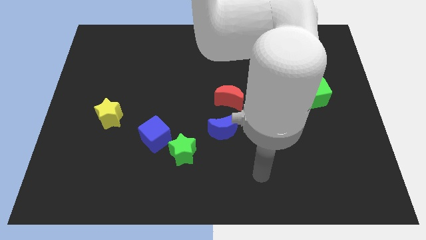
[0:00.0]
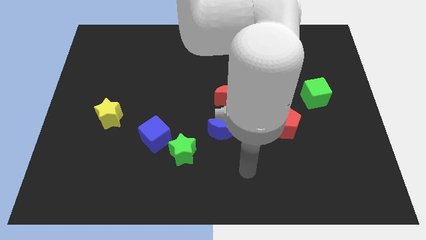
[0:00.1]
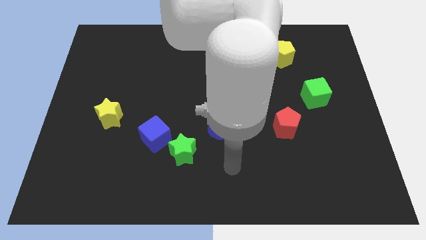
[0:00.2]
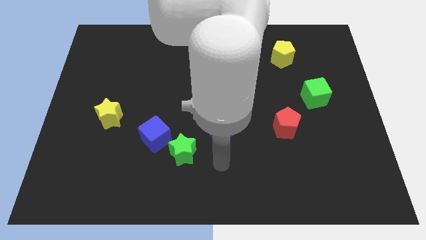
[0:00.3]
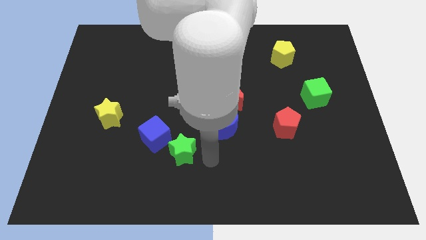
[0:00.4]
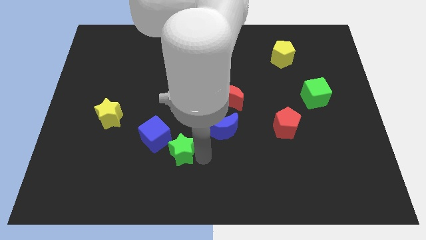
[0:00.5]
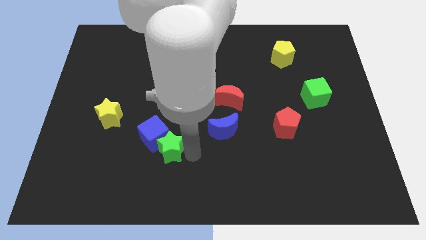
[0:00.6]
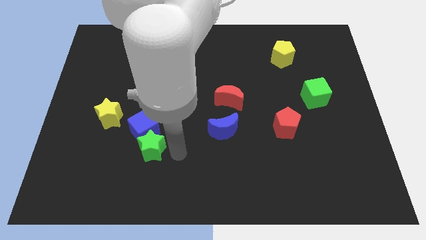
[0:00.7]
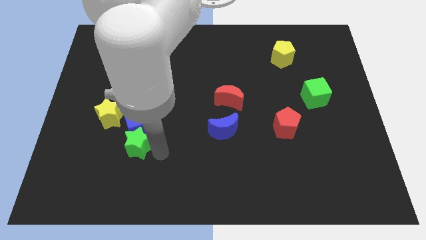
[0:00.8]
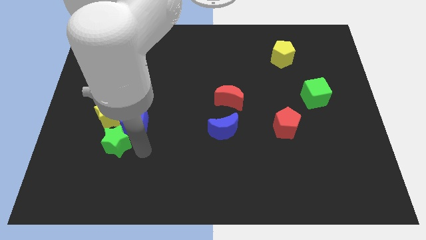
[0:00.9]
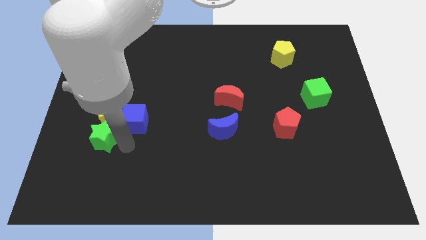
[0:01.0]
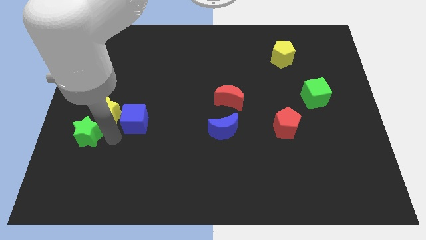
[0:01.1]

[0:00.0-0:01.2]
move the blue cube away from the green star

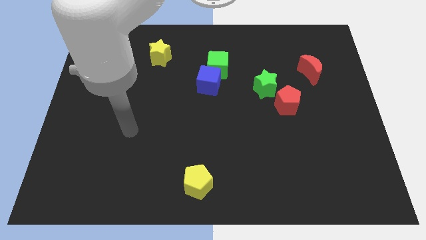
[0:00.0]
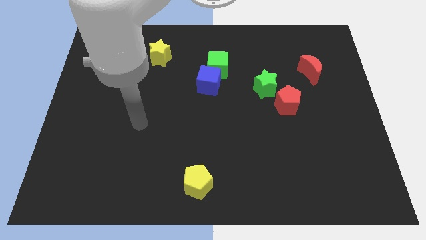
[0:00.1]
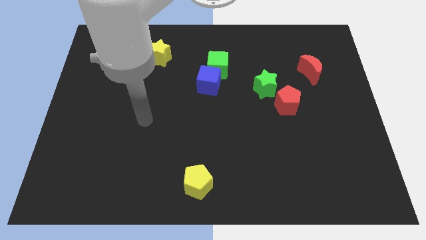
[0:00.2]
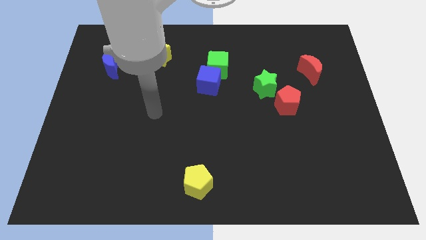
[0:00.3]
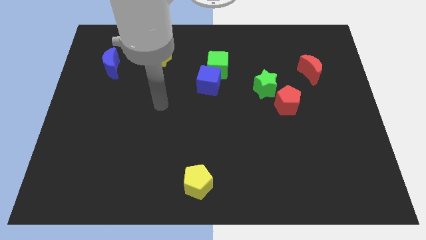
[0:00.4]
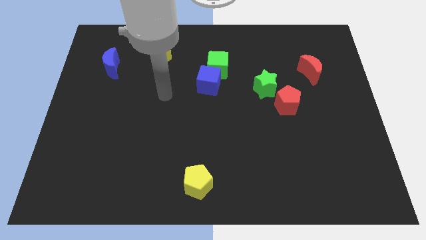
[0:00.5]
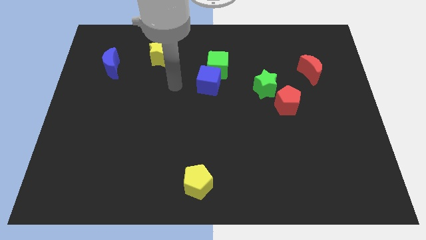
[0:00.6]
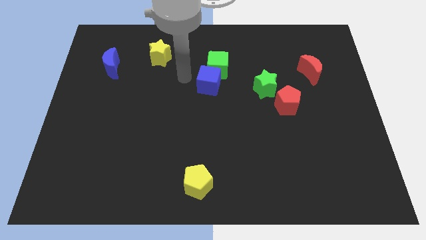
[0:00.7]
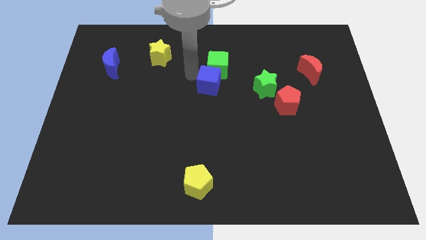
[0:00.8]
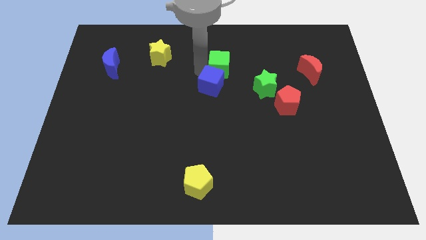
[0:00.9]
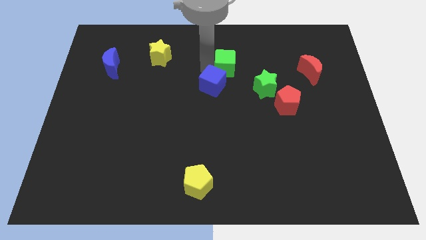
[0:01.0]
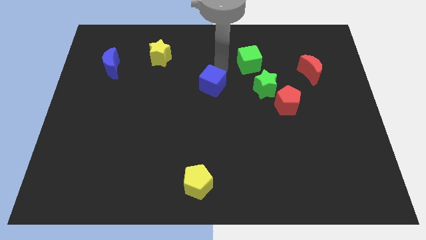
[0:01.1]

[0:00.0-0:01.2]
pull the blue cube apart from the green cube

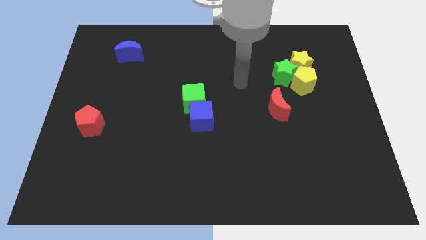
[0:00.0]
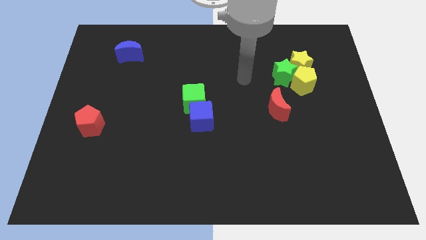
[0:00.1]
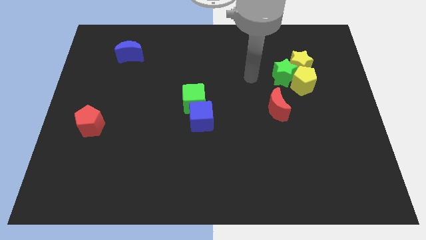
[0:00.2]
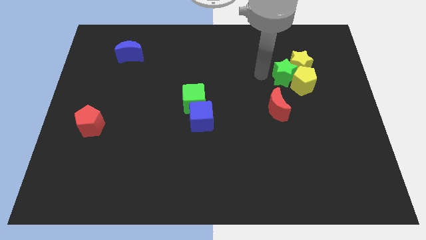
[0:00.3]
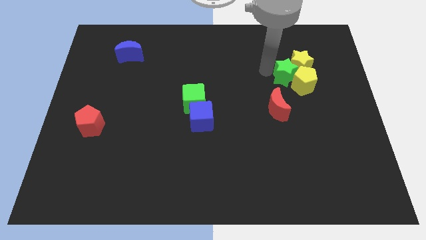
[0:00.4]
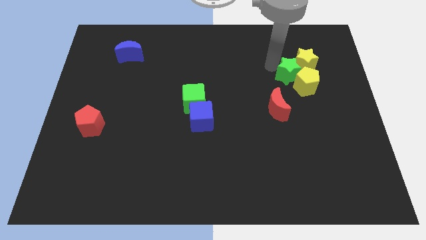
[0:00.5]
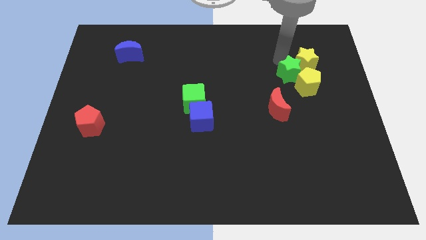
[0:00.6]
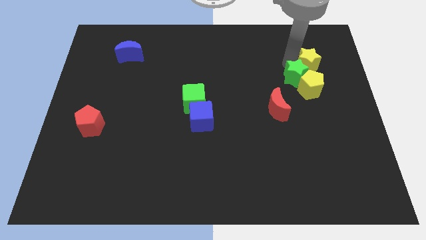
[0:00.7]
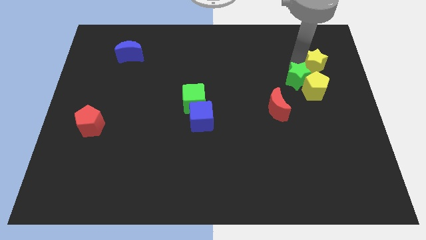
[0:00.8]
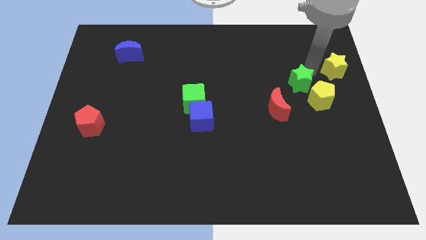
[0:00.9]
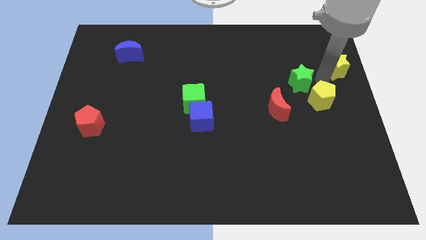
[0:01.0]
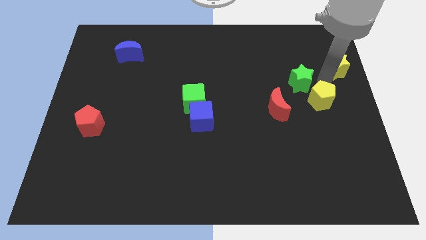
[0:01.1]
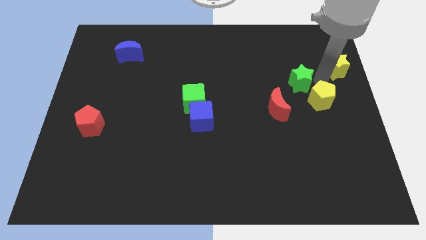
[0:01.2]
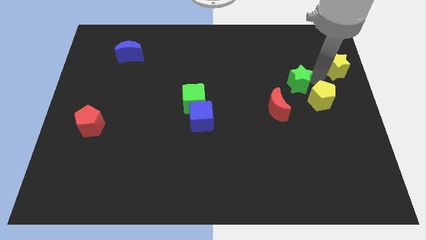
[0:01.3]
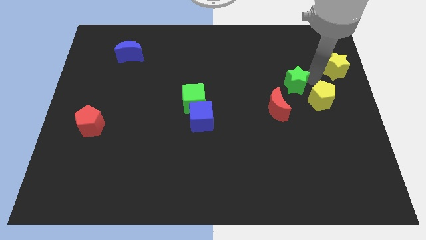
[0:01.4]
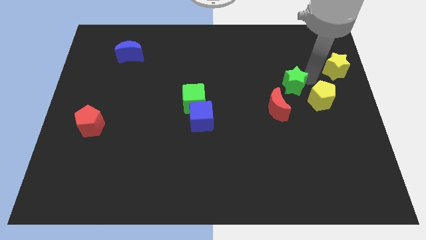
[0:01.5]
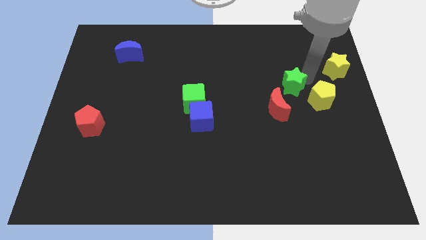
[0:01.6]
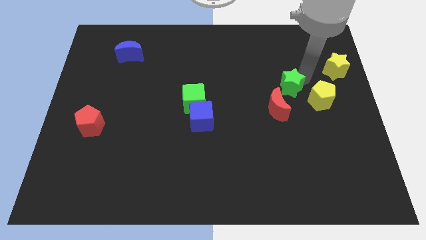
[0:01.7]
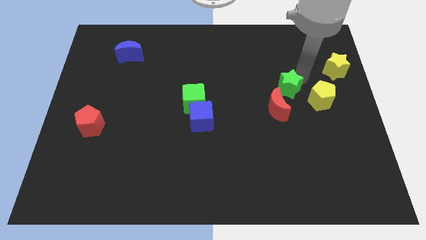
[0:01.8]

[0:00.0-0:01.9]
separate the green star from the yellow pentagon and yellow star

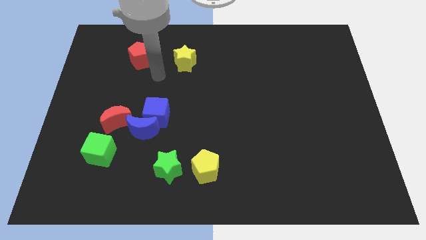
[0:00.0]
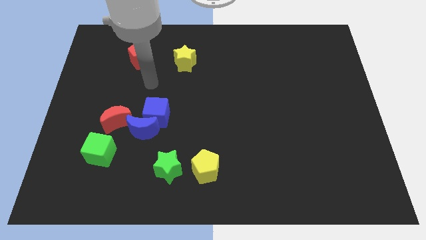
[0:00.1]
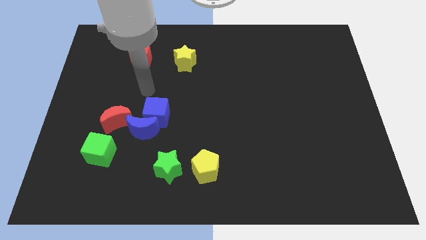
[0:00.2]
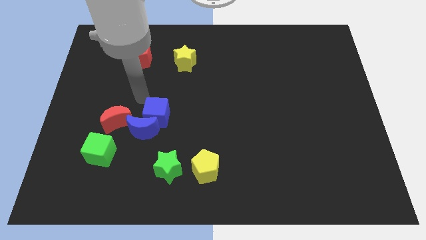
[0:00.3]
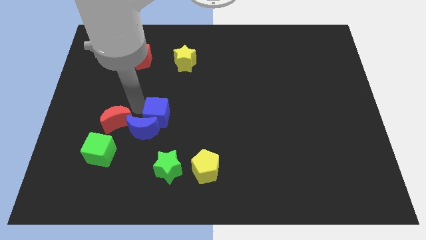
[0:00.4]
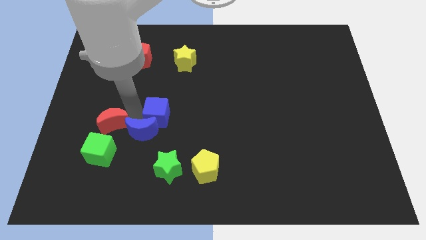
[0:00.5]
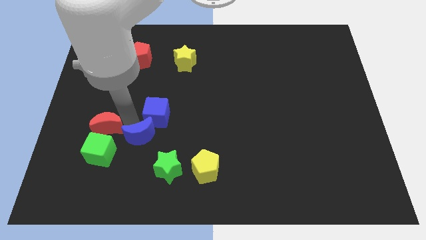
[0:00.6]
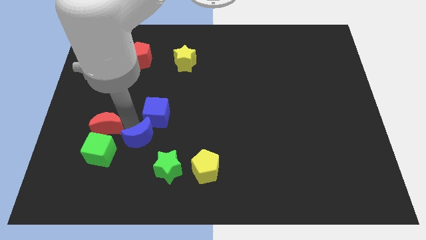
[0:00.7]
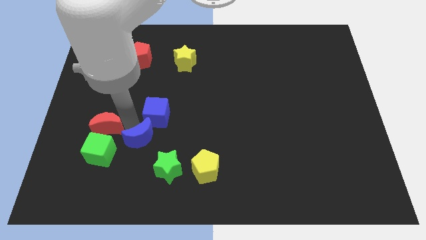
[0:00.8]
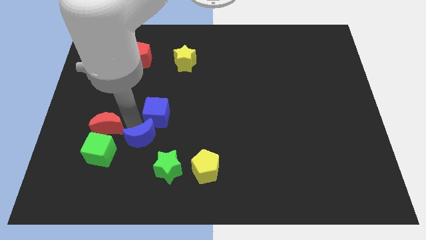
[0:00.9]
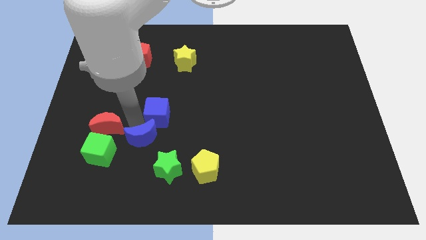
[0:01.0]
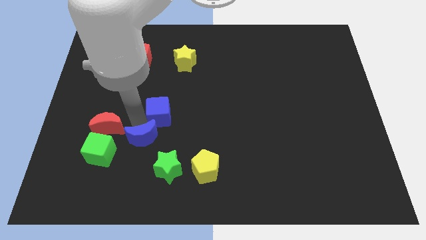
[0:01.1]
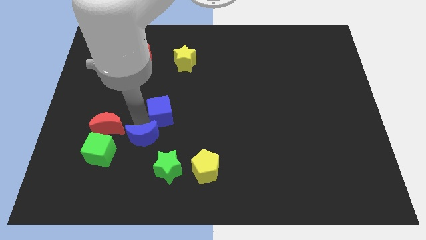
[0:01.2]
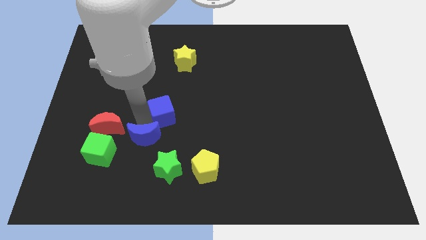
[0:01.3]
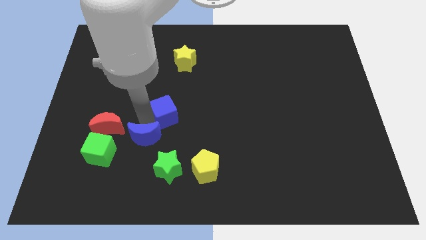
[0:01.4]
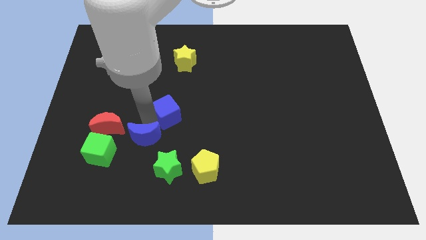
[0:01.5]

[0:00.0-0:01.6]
move the blue cube away from the blue moon and red moon

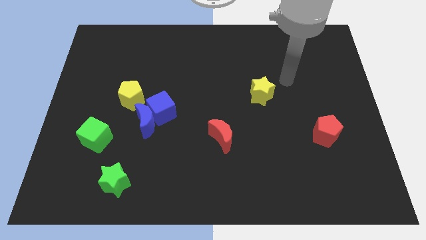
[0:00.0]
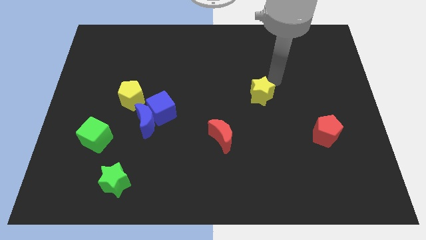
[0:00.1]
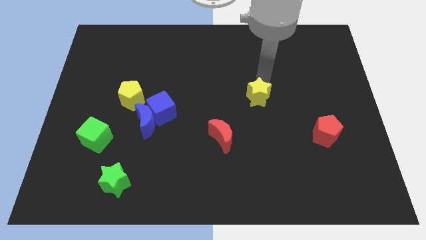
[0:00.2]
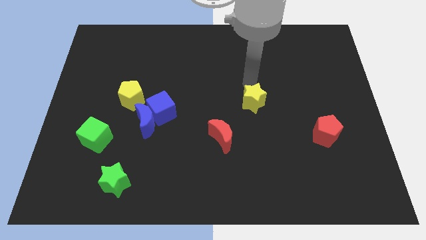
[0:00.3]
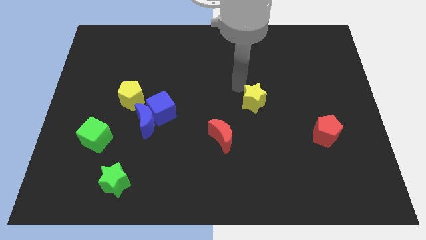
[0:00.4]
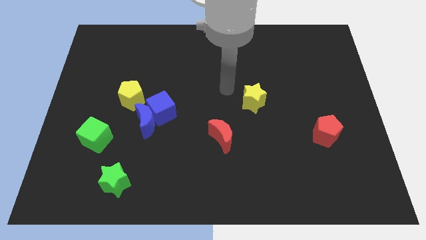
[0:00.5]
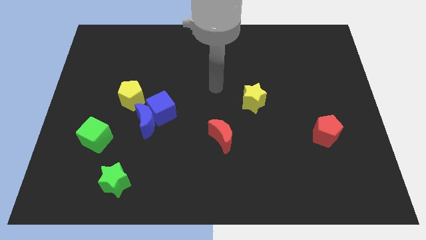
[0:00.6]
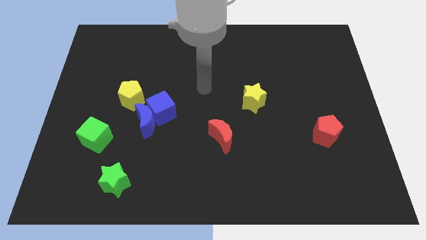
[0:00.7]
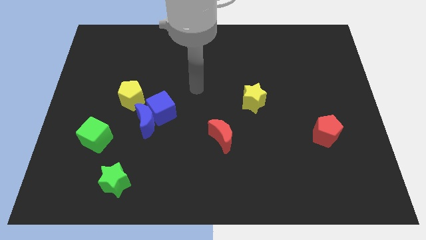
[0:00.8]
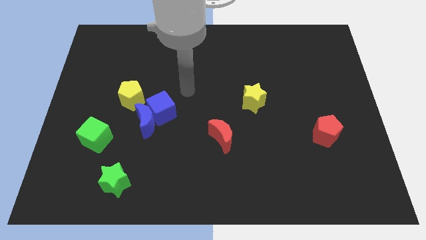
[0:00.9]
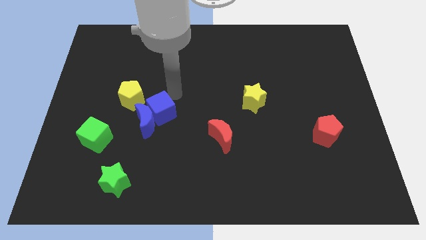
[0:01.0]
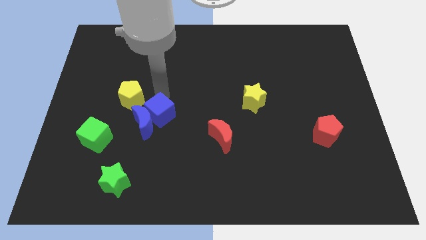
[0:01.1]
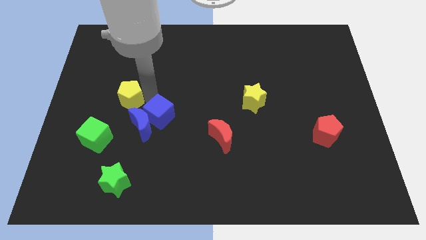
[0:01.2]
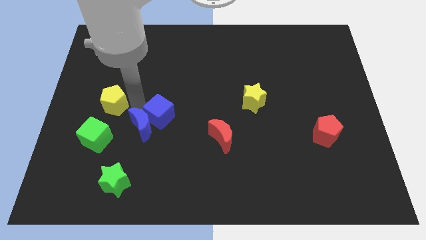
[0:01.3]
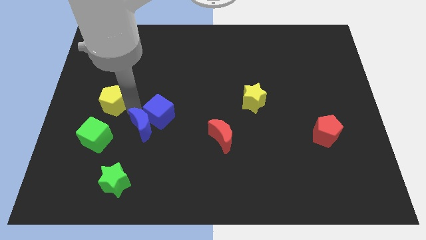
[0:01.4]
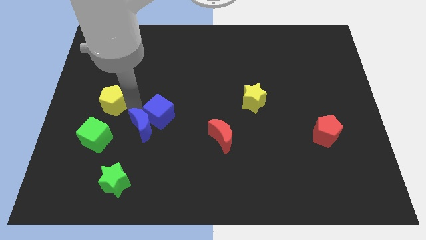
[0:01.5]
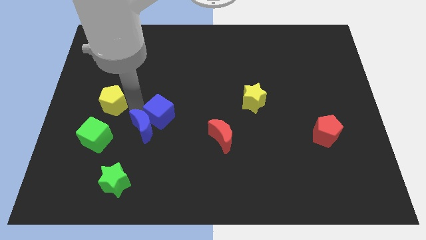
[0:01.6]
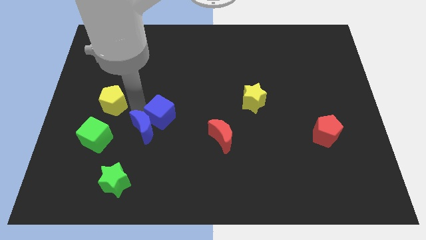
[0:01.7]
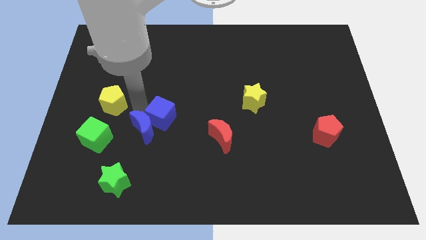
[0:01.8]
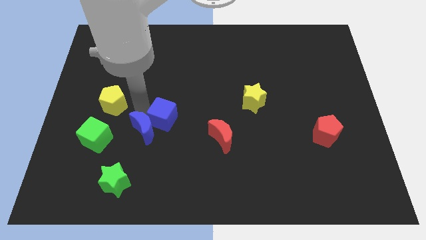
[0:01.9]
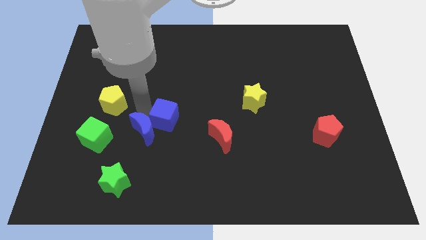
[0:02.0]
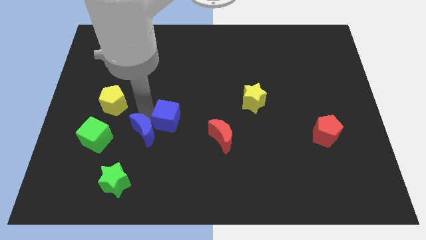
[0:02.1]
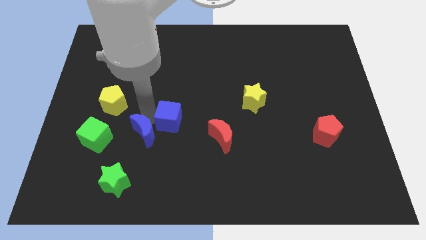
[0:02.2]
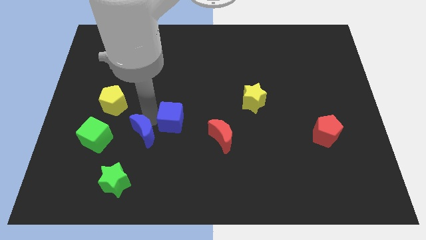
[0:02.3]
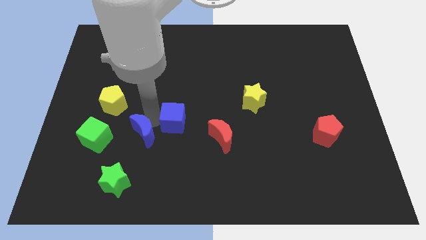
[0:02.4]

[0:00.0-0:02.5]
separate the blue cube from the blue moon and yellow pentagon

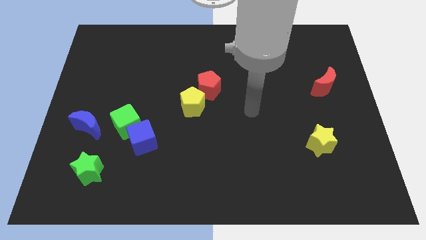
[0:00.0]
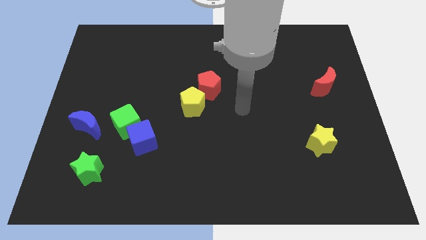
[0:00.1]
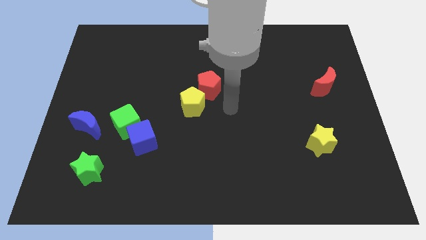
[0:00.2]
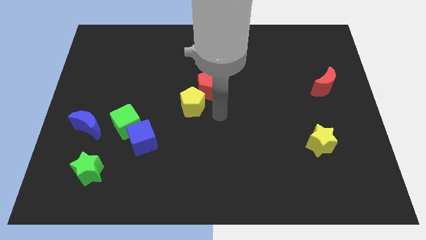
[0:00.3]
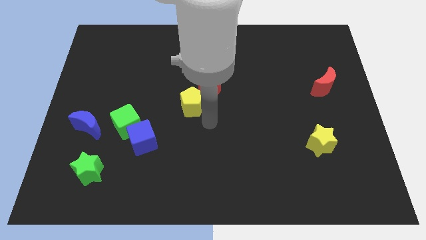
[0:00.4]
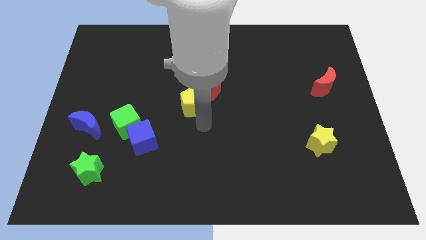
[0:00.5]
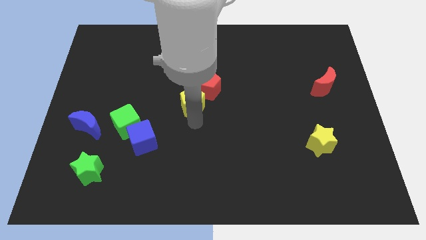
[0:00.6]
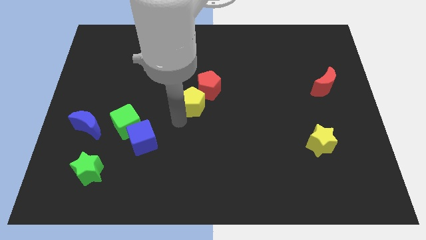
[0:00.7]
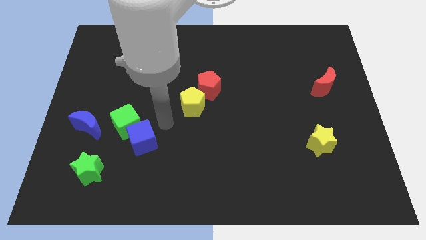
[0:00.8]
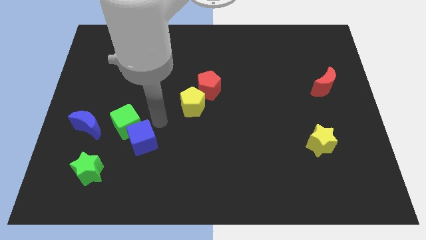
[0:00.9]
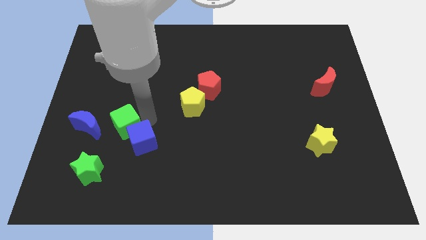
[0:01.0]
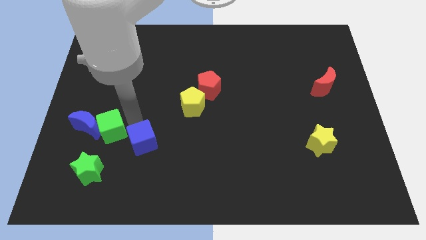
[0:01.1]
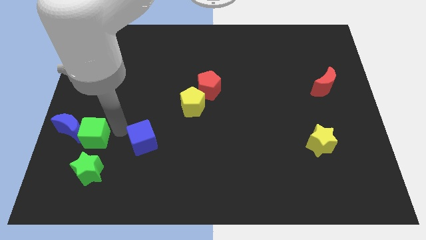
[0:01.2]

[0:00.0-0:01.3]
separate the blue cube from the green cube
